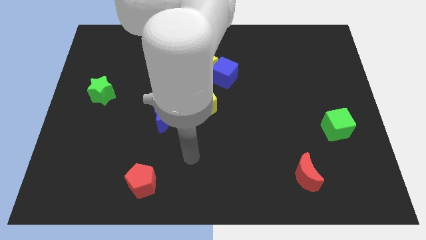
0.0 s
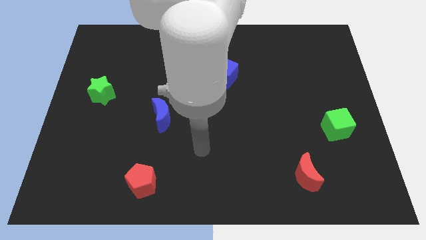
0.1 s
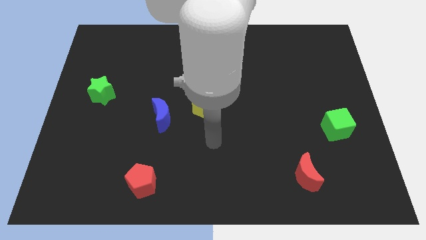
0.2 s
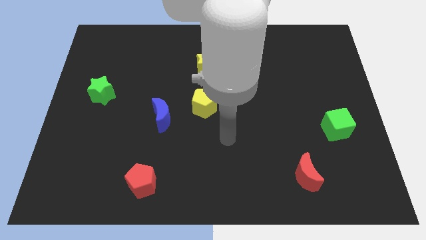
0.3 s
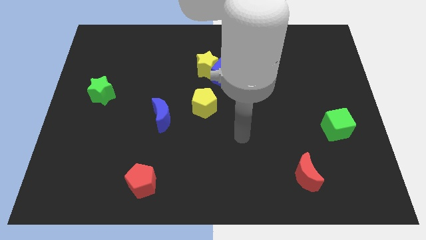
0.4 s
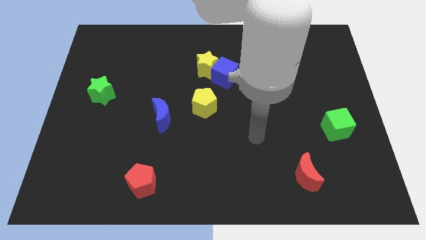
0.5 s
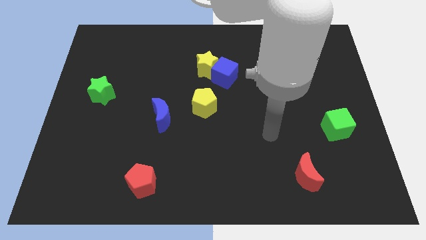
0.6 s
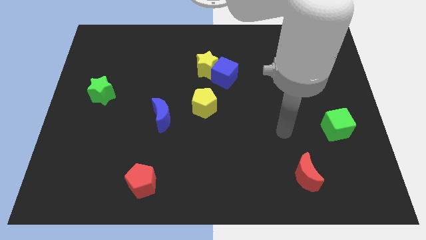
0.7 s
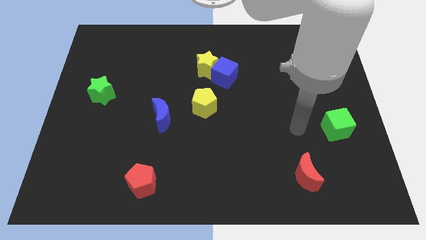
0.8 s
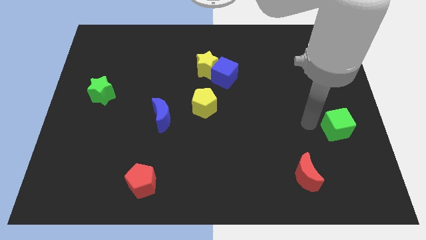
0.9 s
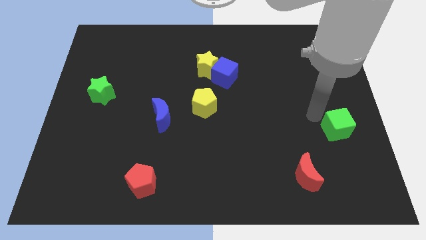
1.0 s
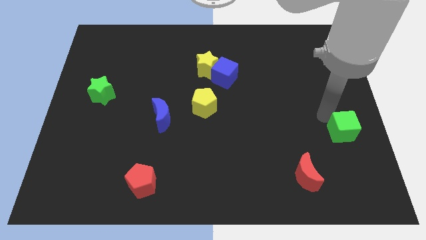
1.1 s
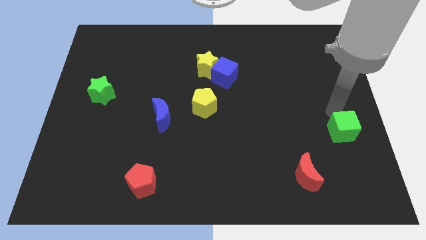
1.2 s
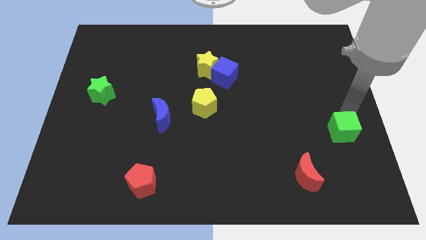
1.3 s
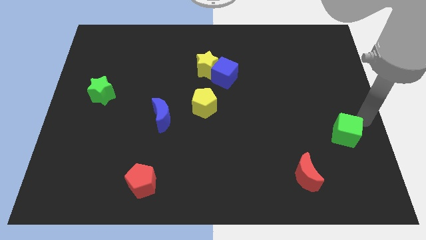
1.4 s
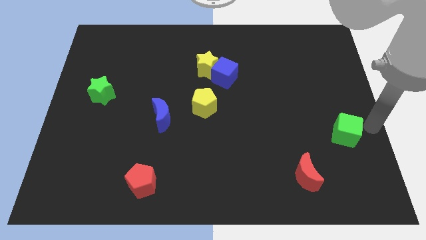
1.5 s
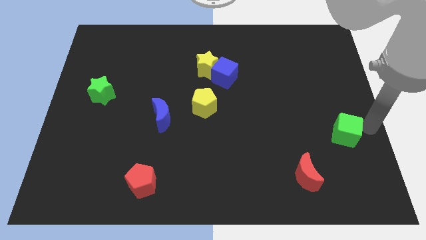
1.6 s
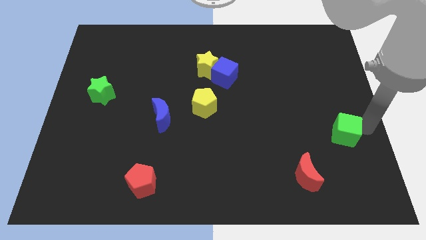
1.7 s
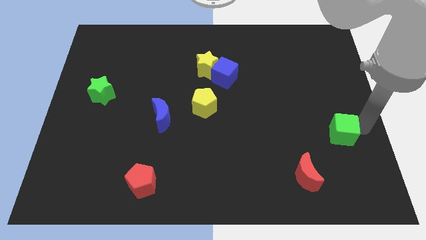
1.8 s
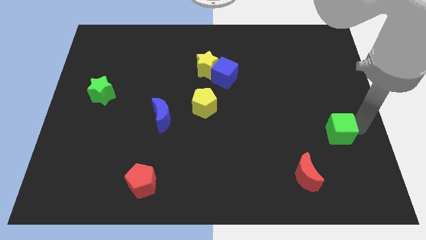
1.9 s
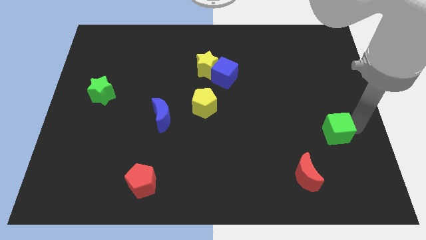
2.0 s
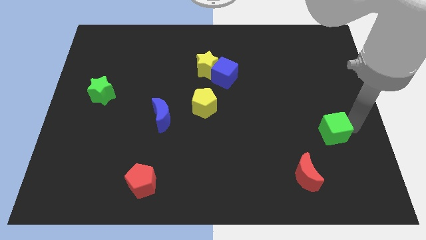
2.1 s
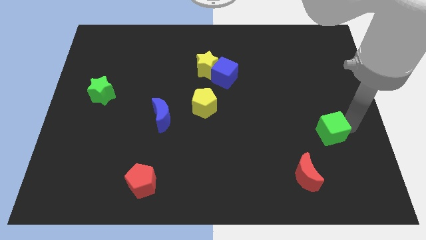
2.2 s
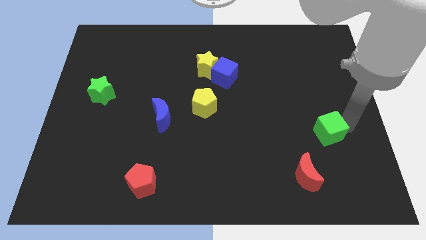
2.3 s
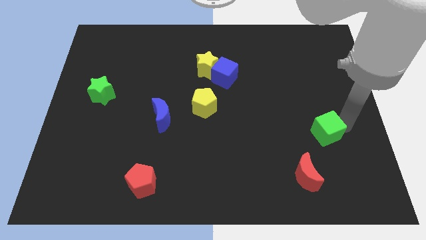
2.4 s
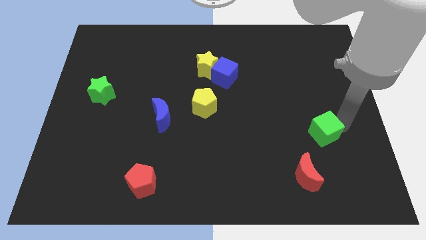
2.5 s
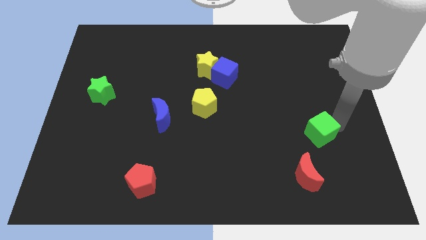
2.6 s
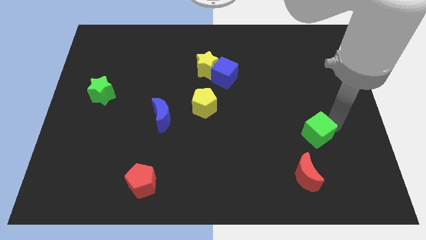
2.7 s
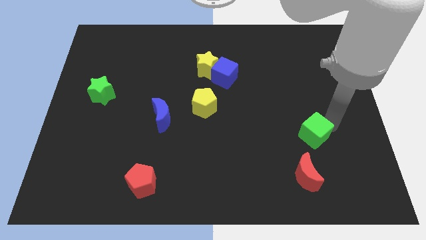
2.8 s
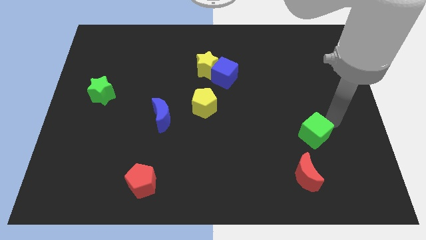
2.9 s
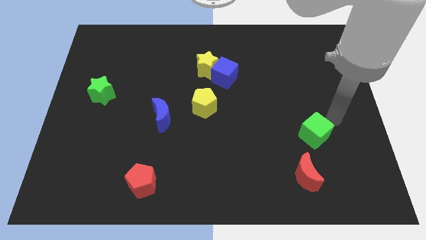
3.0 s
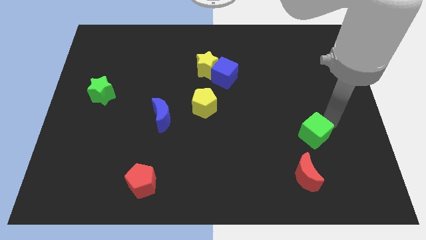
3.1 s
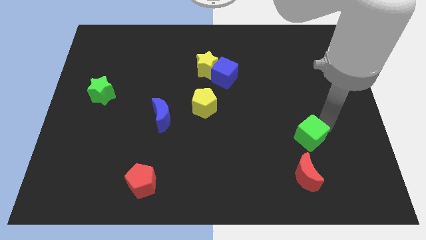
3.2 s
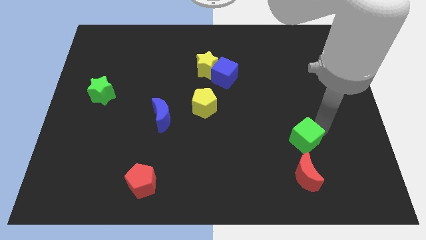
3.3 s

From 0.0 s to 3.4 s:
push the green cube diagonally downwards and to the left a bit

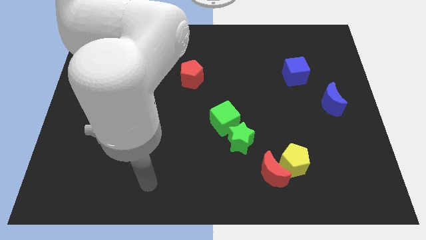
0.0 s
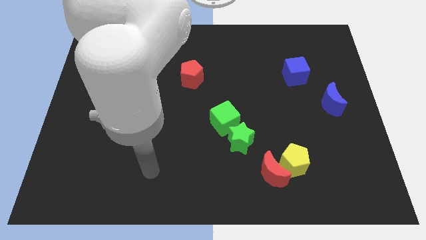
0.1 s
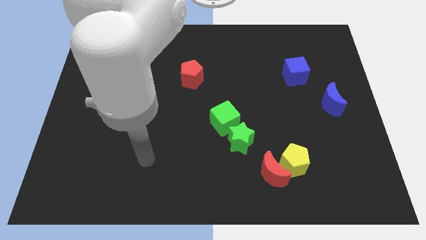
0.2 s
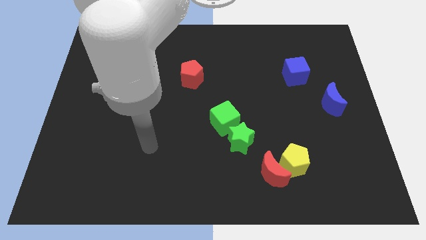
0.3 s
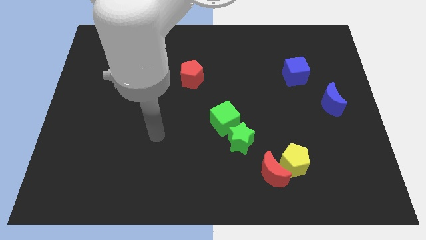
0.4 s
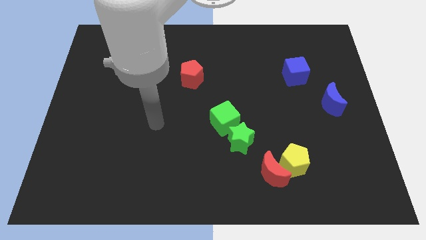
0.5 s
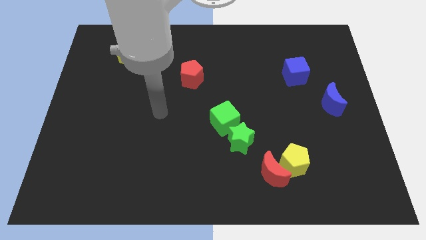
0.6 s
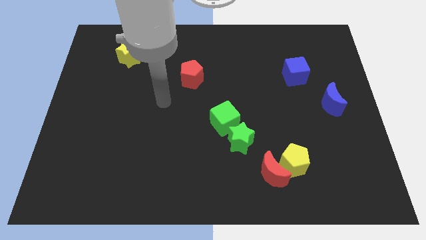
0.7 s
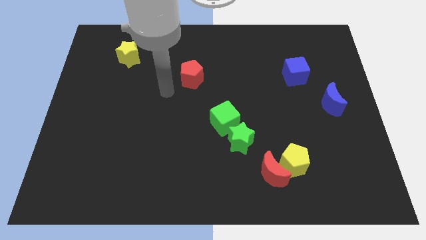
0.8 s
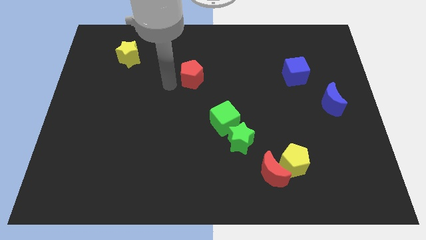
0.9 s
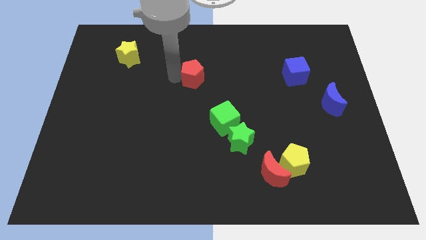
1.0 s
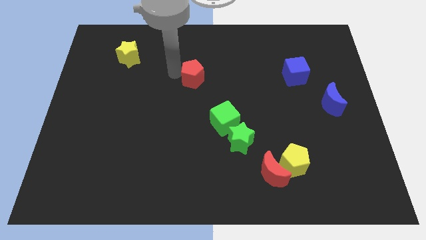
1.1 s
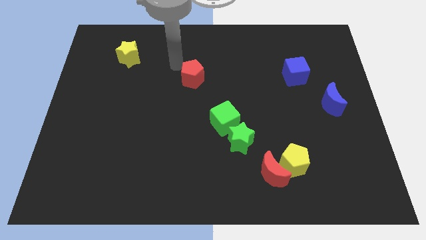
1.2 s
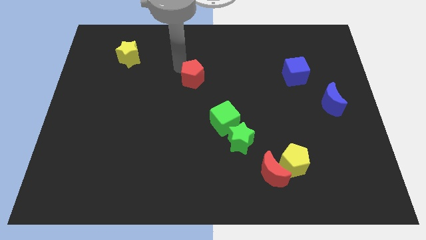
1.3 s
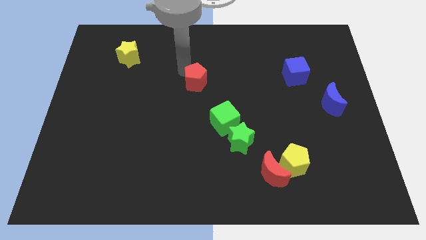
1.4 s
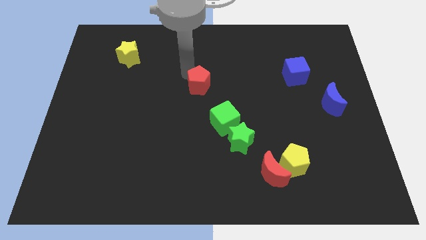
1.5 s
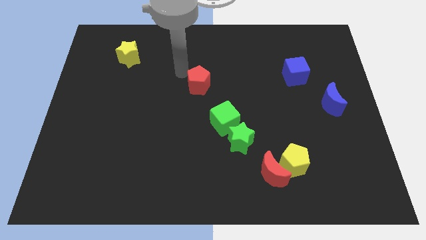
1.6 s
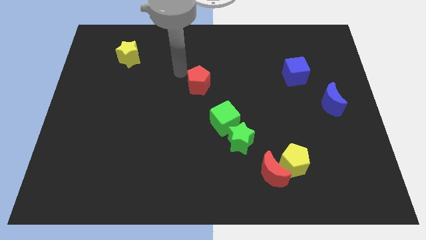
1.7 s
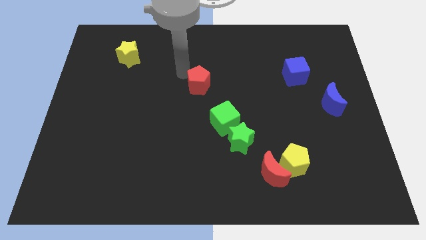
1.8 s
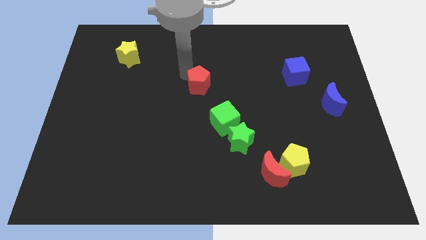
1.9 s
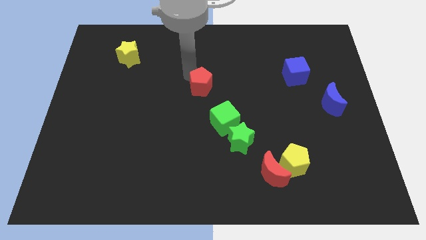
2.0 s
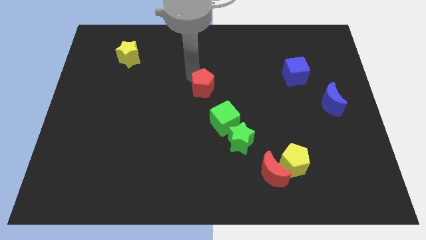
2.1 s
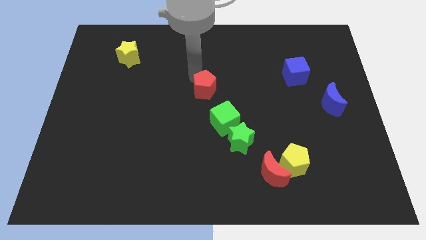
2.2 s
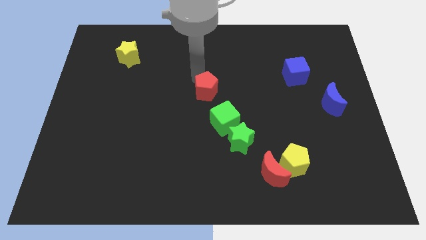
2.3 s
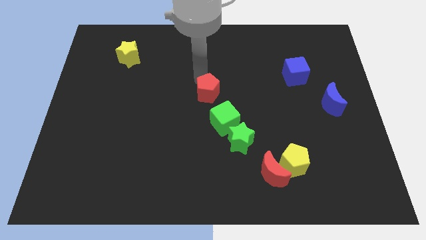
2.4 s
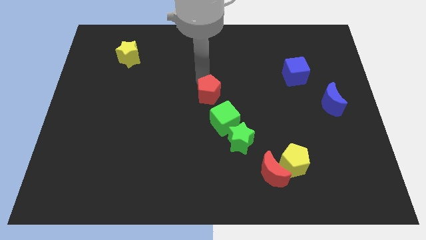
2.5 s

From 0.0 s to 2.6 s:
push the red pentagon downwards and to the right slightly

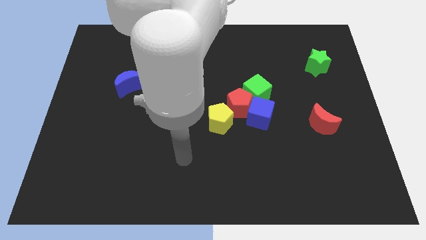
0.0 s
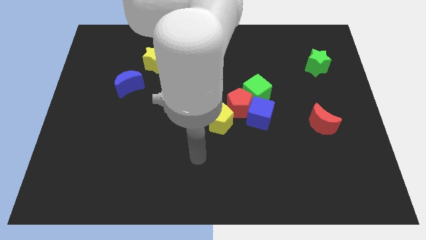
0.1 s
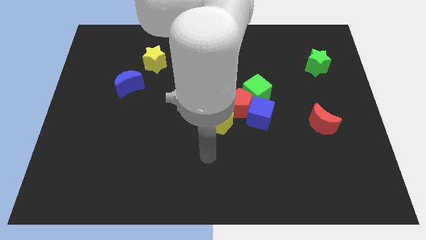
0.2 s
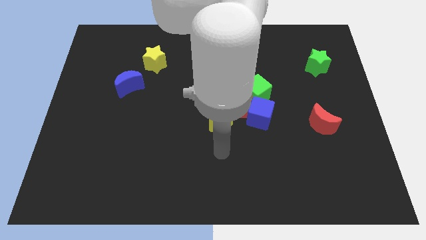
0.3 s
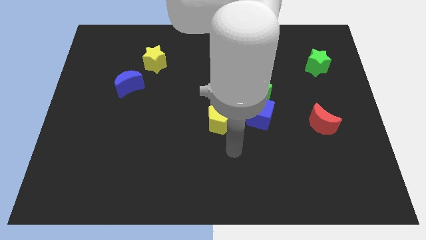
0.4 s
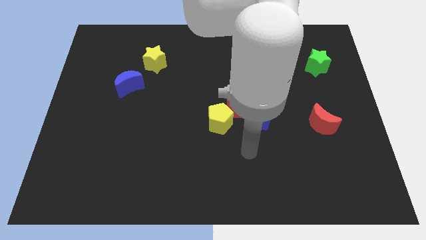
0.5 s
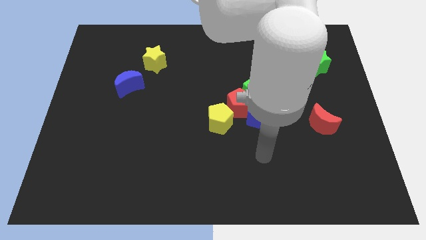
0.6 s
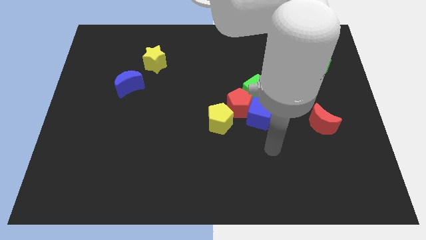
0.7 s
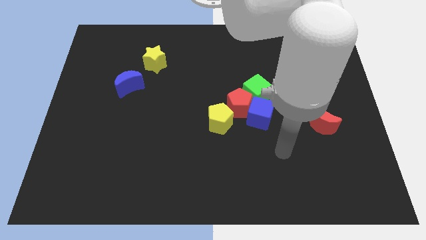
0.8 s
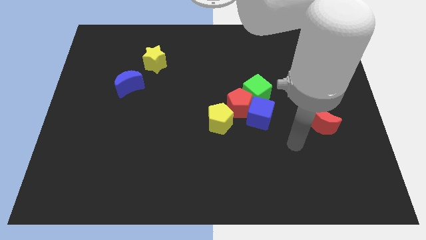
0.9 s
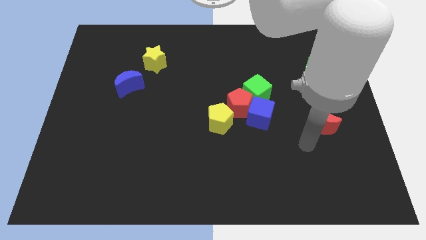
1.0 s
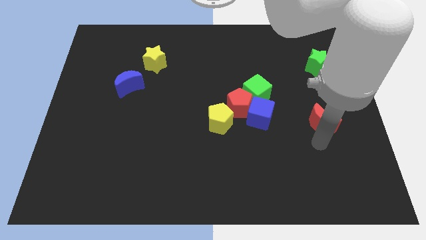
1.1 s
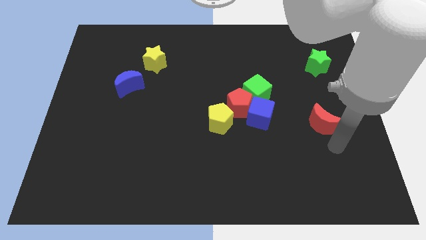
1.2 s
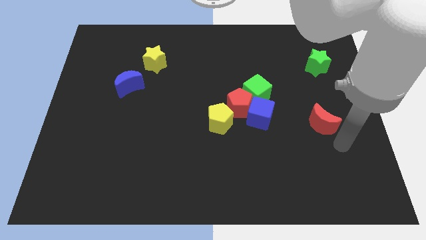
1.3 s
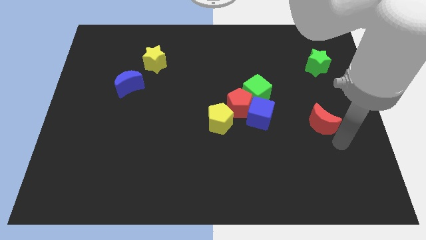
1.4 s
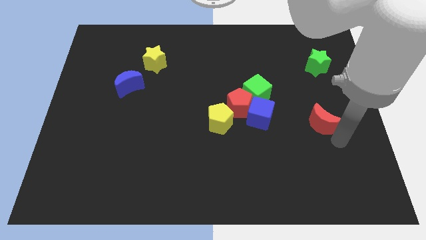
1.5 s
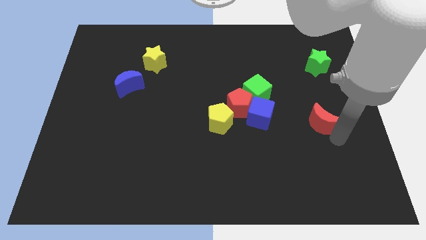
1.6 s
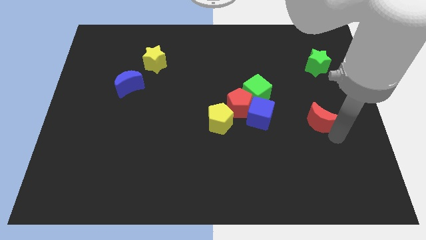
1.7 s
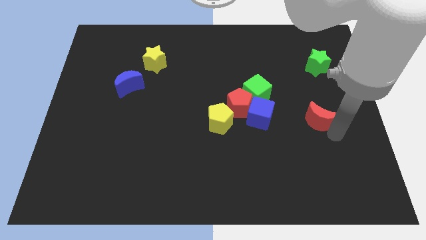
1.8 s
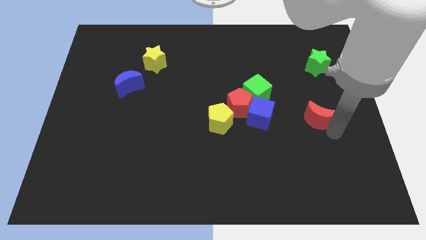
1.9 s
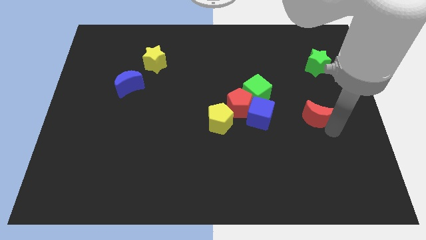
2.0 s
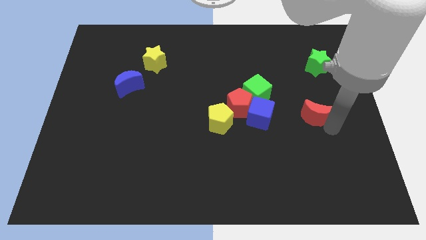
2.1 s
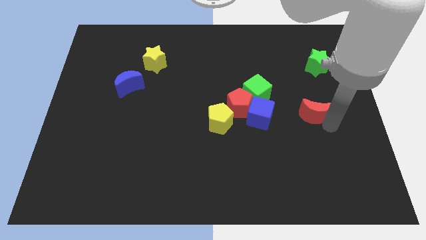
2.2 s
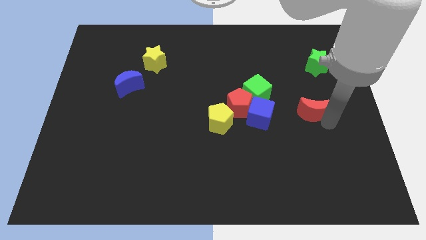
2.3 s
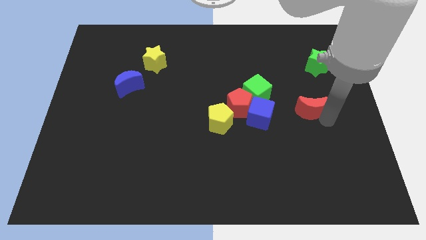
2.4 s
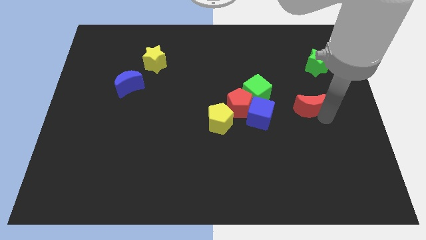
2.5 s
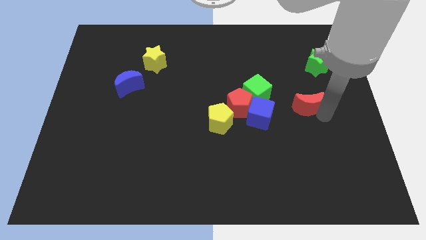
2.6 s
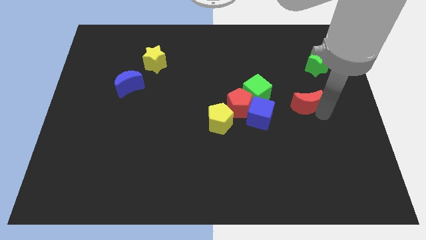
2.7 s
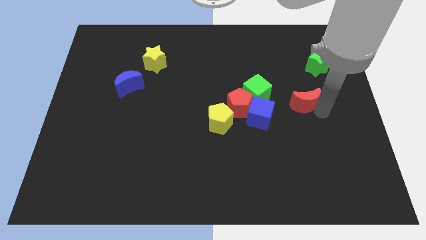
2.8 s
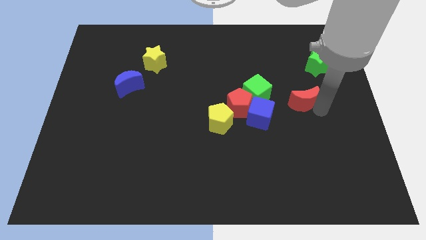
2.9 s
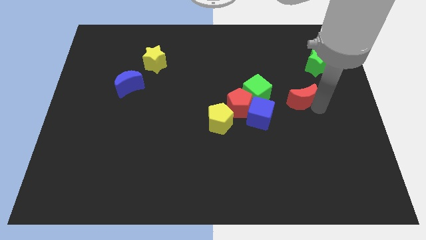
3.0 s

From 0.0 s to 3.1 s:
slightly push the red moon diagonally upwards and left
